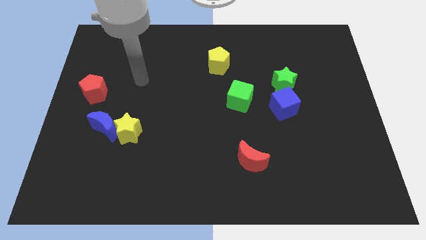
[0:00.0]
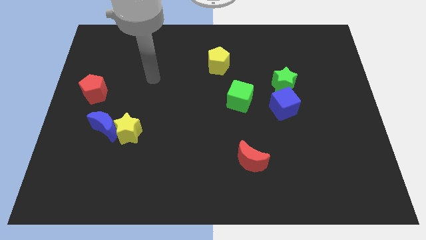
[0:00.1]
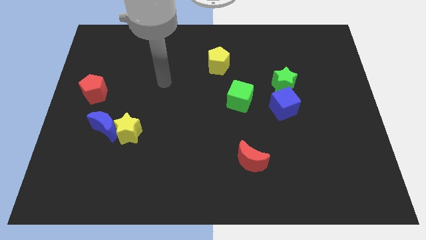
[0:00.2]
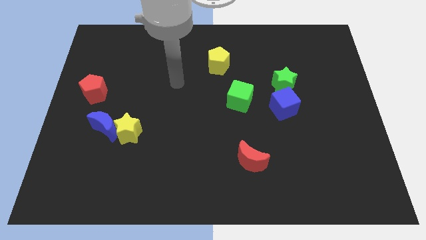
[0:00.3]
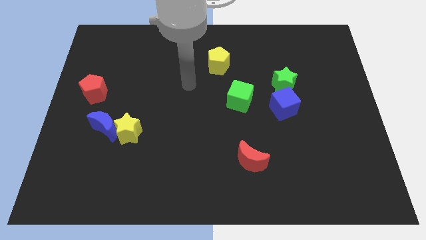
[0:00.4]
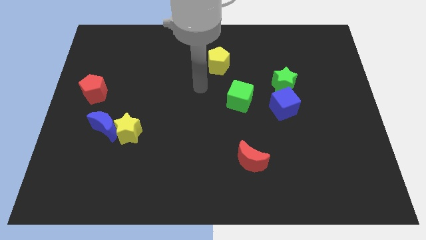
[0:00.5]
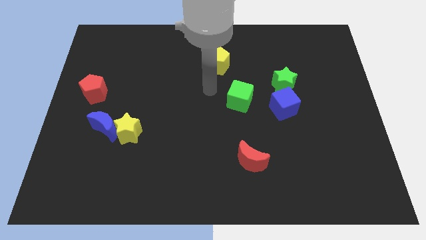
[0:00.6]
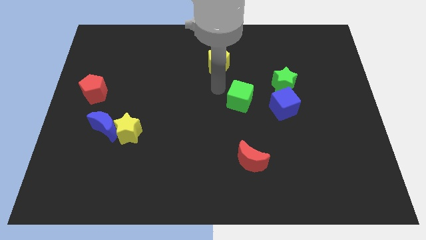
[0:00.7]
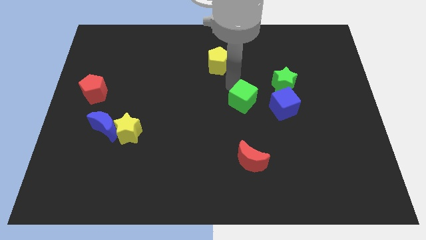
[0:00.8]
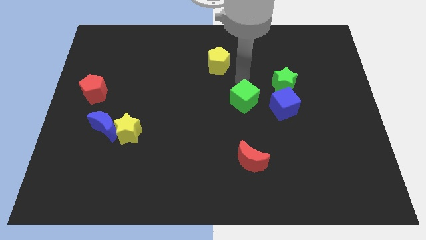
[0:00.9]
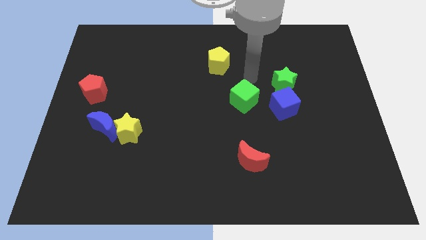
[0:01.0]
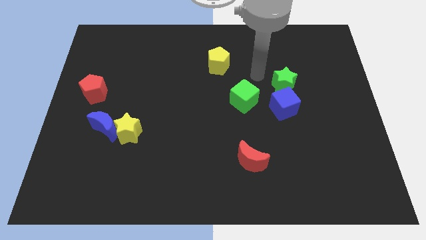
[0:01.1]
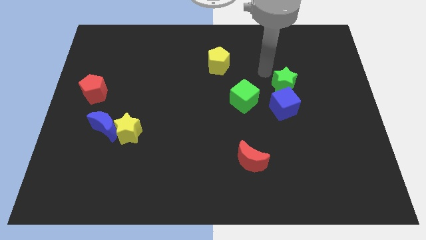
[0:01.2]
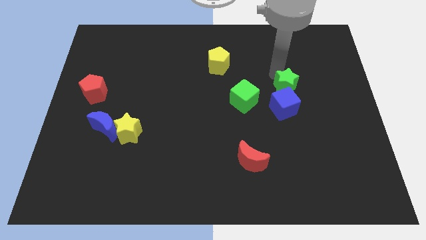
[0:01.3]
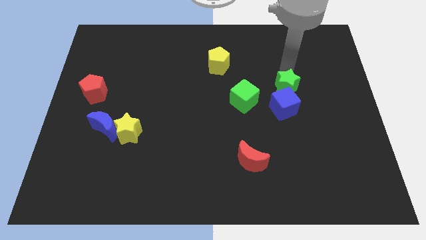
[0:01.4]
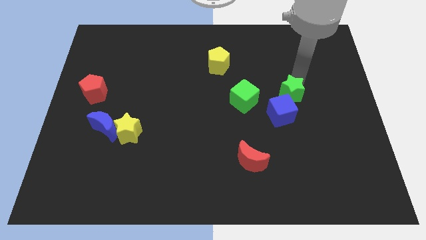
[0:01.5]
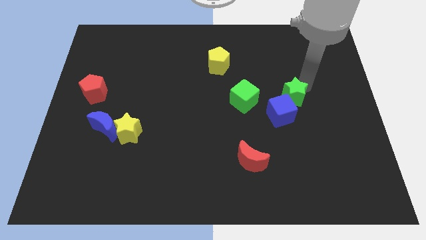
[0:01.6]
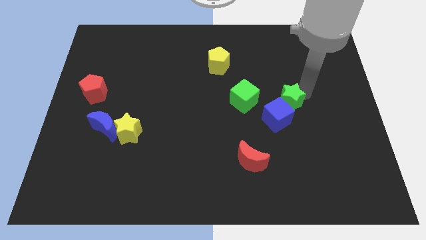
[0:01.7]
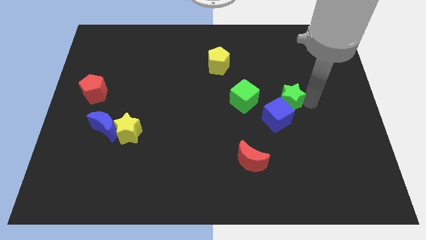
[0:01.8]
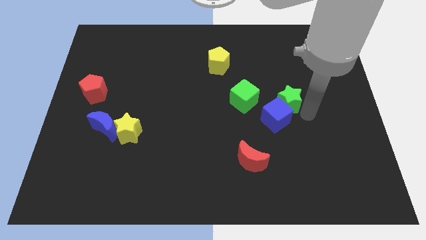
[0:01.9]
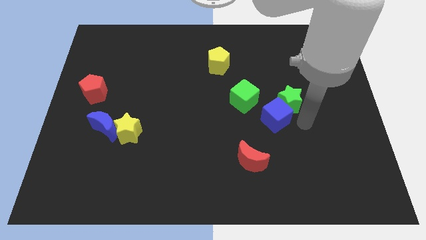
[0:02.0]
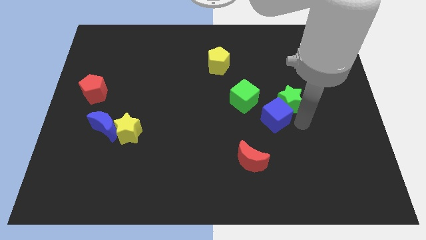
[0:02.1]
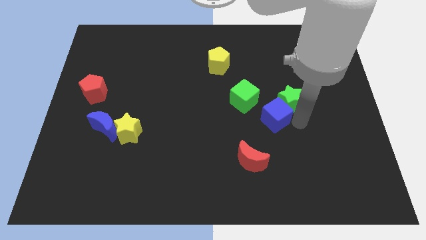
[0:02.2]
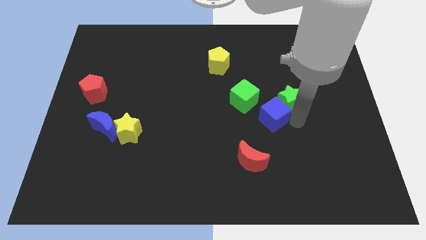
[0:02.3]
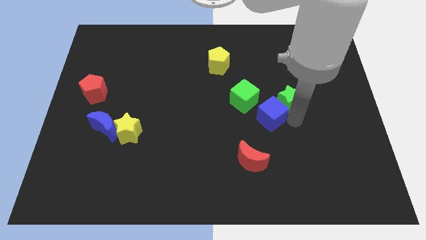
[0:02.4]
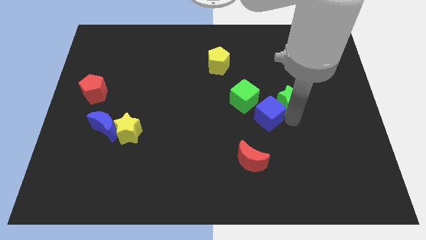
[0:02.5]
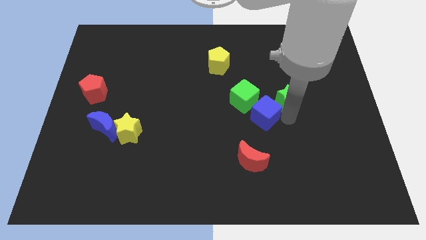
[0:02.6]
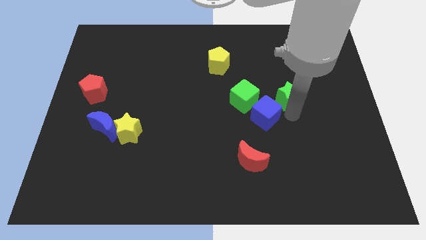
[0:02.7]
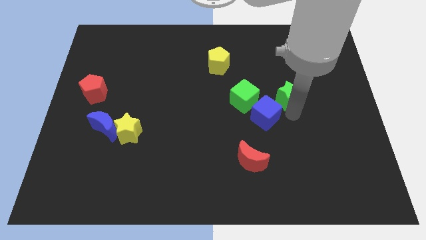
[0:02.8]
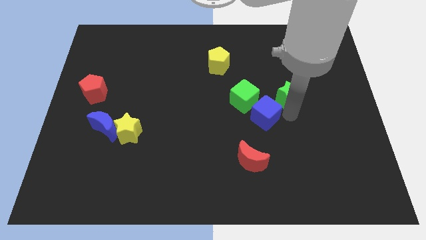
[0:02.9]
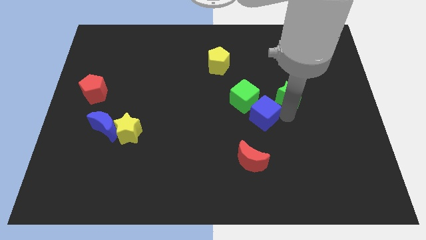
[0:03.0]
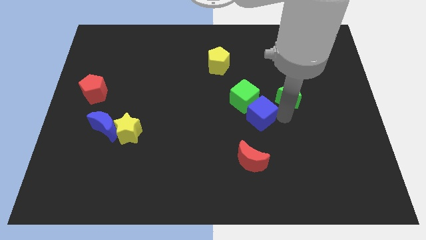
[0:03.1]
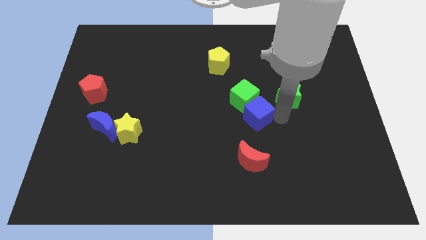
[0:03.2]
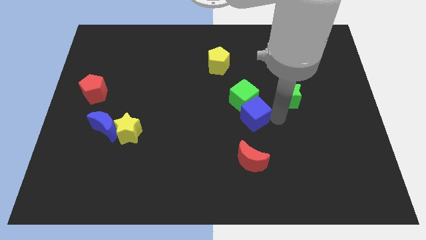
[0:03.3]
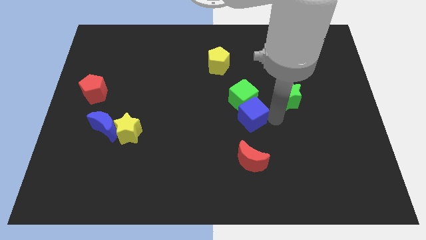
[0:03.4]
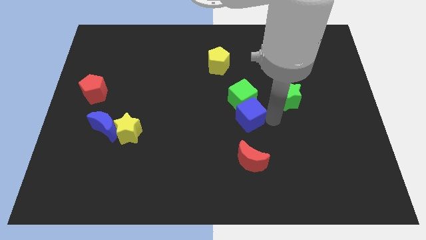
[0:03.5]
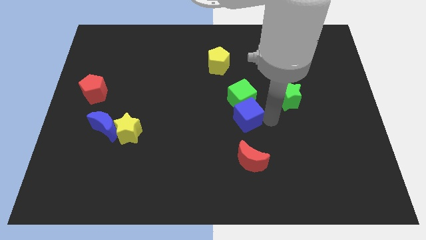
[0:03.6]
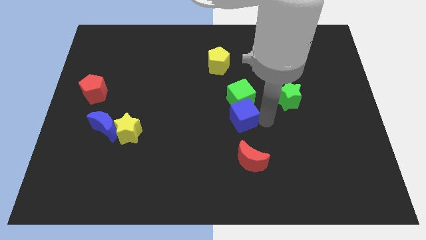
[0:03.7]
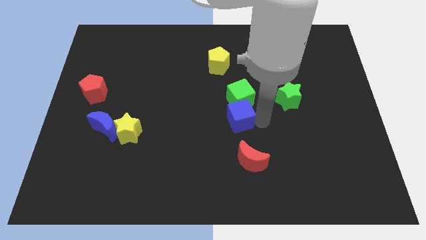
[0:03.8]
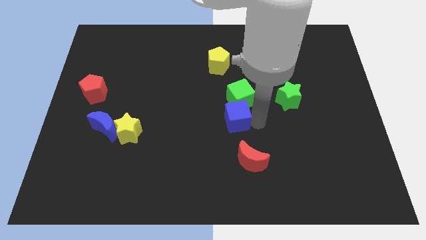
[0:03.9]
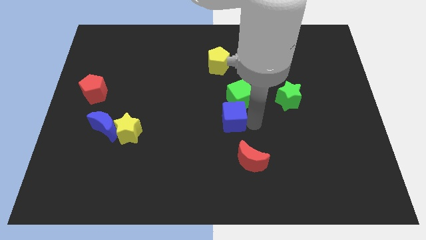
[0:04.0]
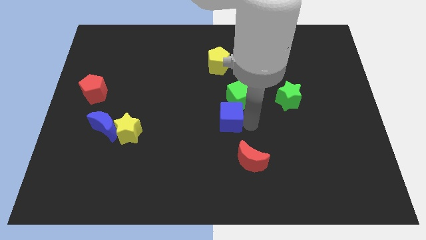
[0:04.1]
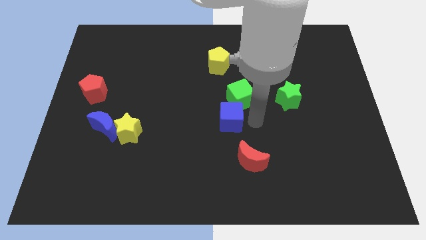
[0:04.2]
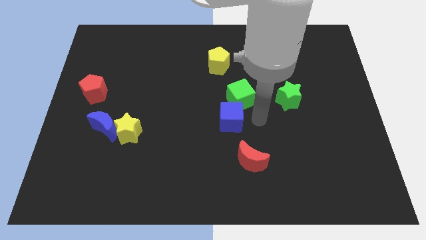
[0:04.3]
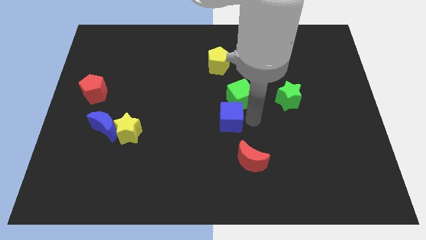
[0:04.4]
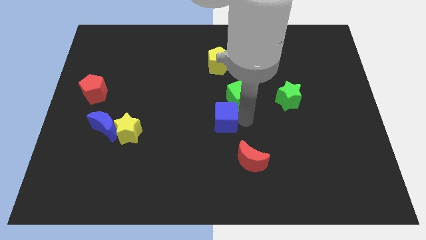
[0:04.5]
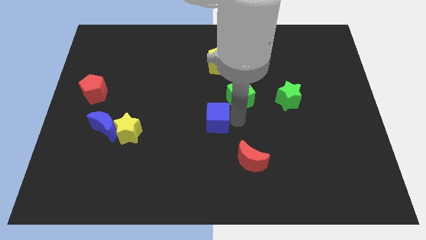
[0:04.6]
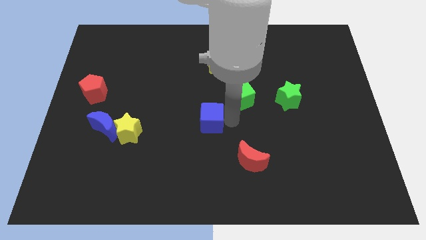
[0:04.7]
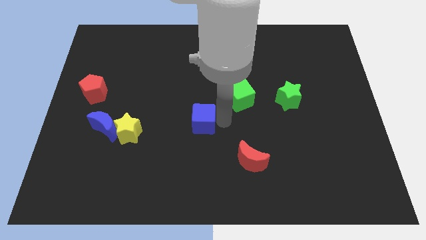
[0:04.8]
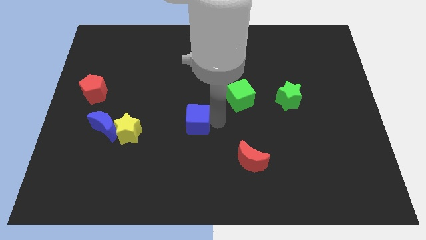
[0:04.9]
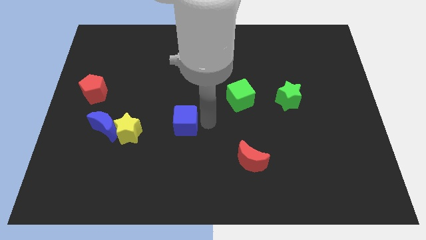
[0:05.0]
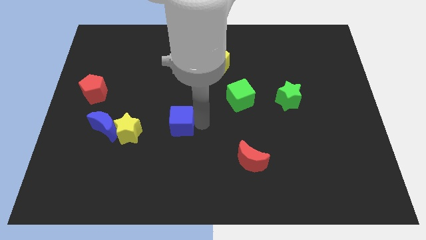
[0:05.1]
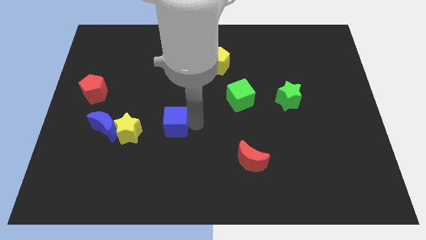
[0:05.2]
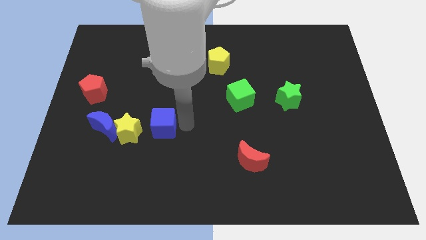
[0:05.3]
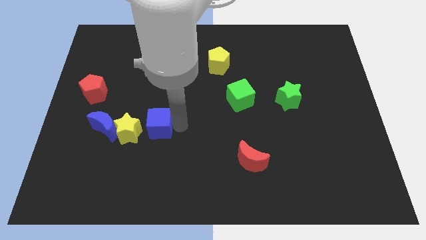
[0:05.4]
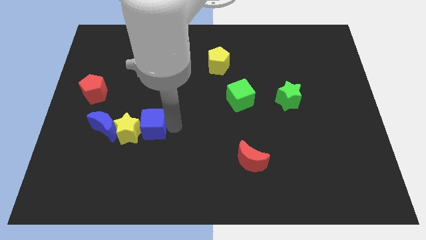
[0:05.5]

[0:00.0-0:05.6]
put the blue cube to the yellow star

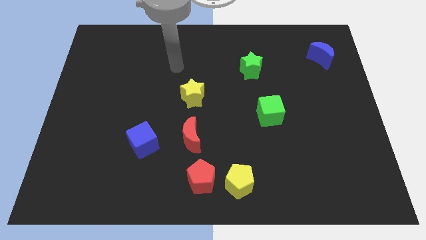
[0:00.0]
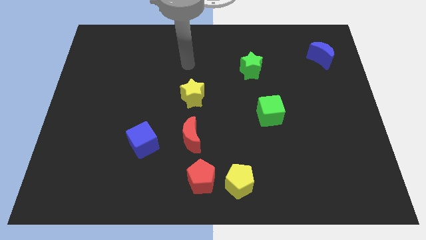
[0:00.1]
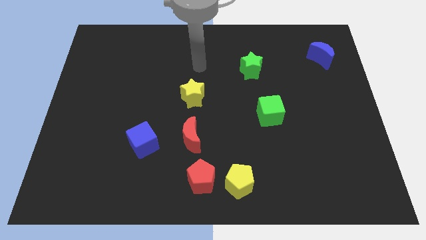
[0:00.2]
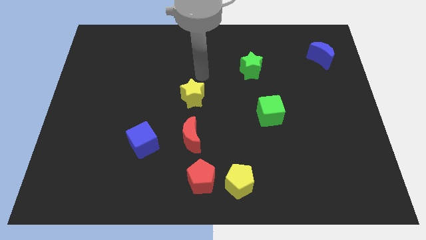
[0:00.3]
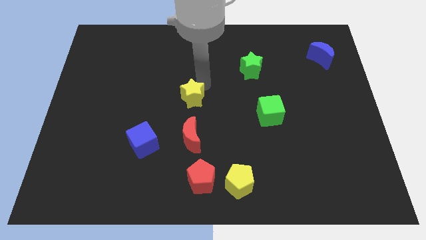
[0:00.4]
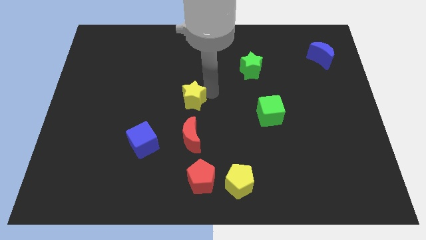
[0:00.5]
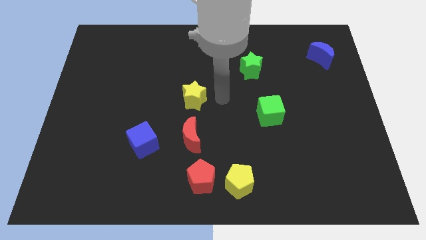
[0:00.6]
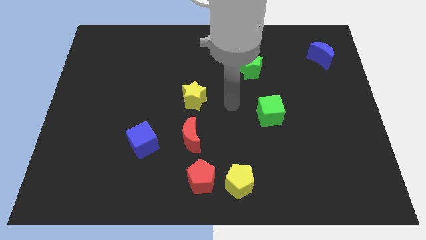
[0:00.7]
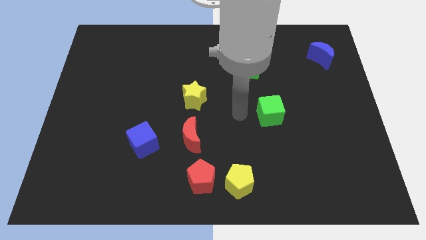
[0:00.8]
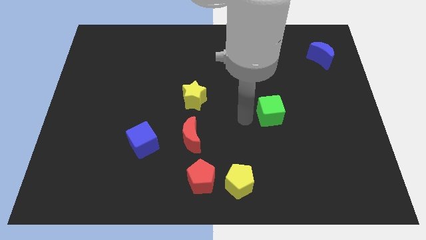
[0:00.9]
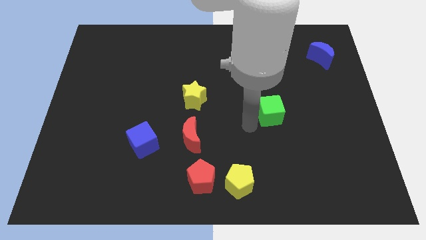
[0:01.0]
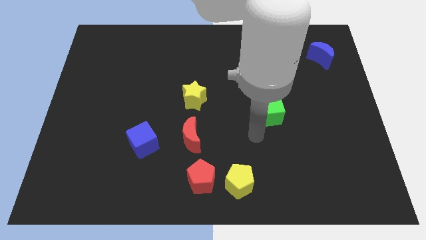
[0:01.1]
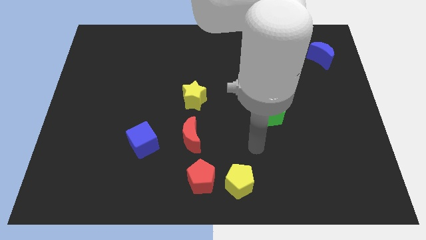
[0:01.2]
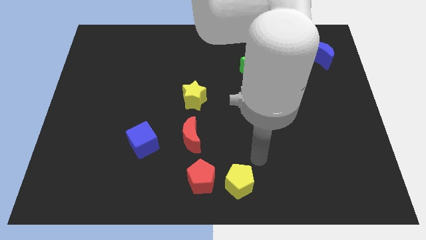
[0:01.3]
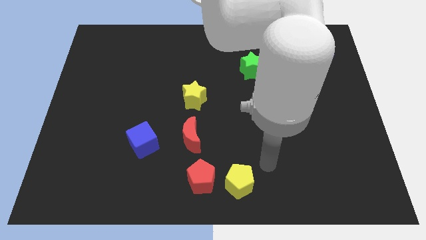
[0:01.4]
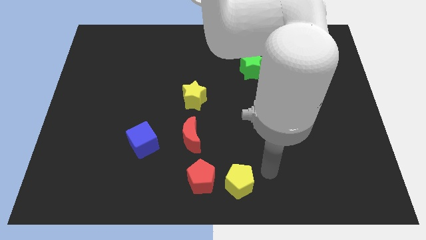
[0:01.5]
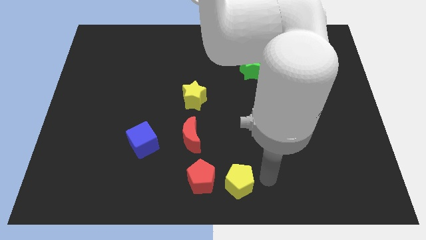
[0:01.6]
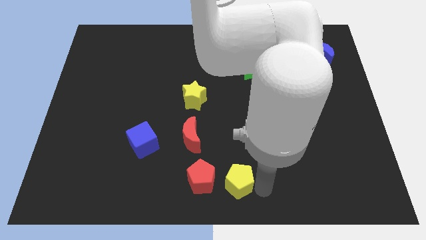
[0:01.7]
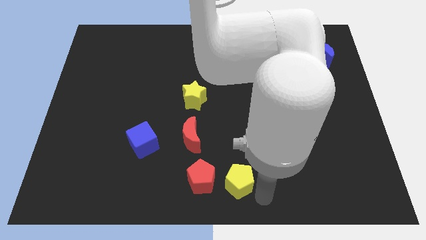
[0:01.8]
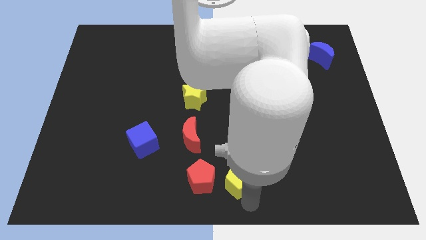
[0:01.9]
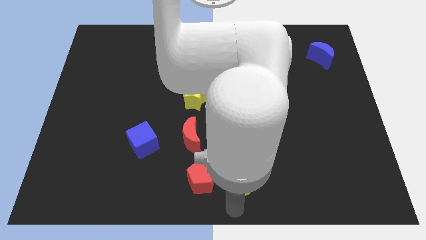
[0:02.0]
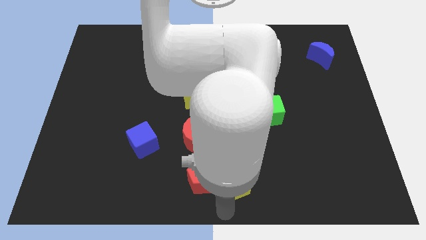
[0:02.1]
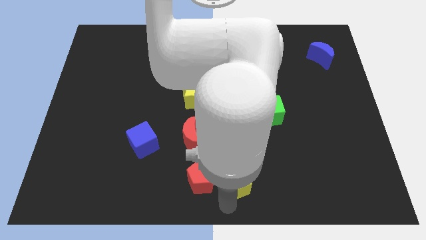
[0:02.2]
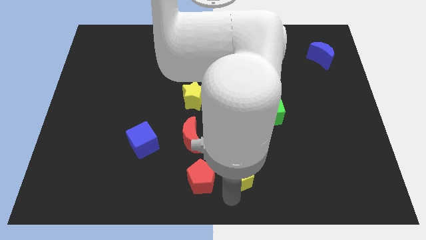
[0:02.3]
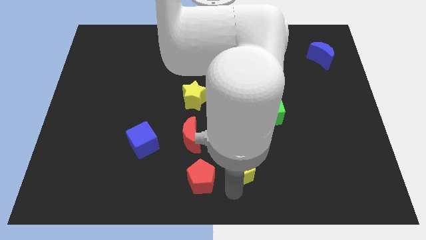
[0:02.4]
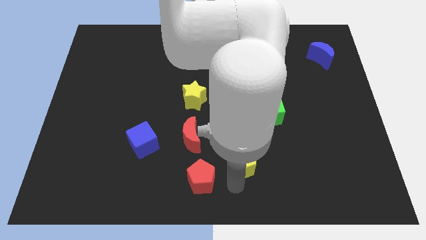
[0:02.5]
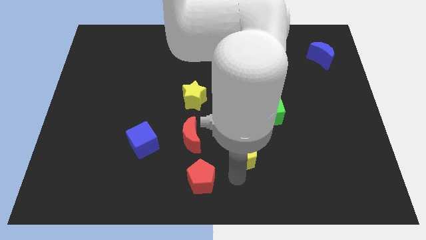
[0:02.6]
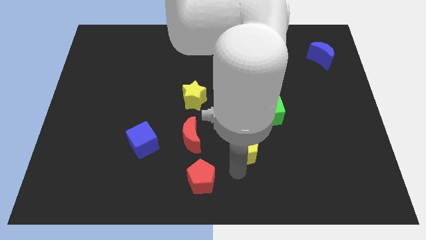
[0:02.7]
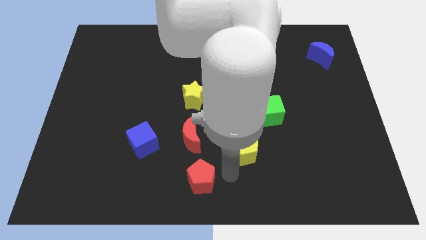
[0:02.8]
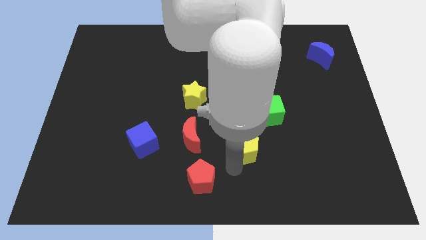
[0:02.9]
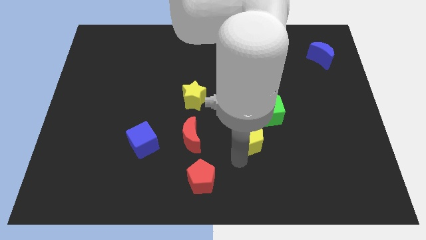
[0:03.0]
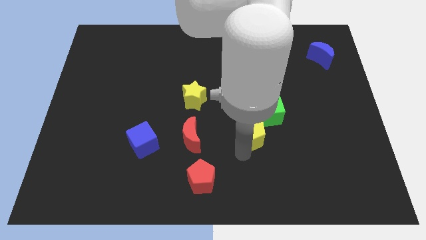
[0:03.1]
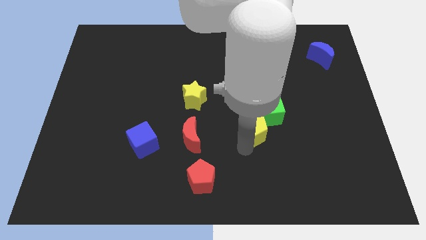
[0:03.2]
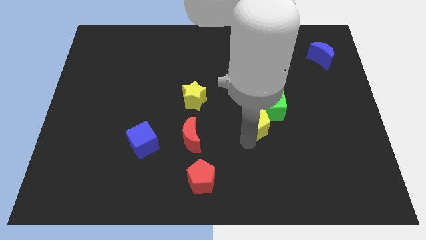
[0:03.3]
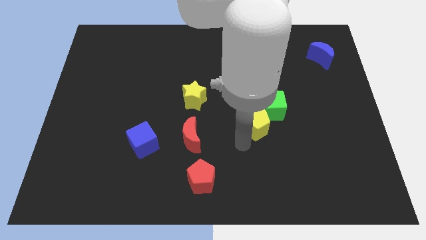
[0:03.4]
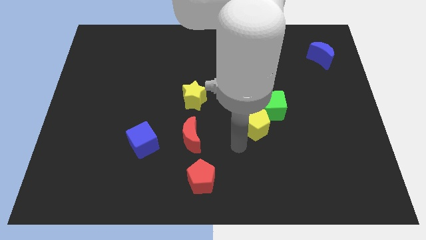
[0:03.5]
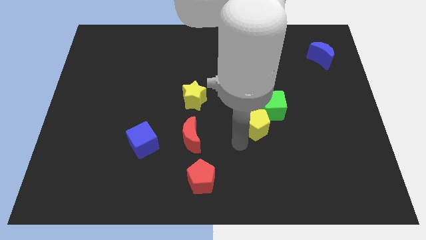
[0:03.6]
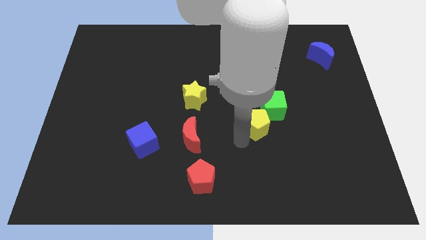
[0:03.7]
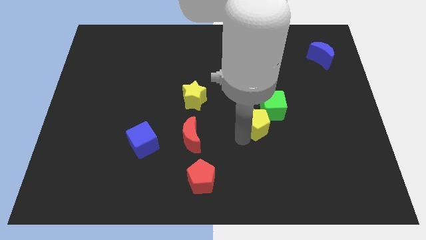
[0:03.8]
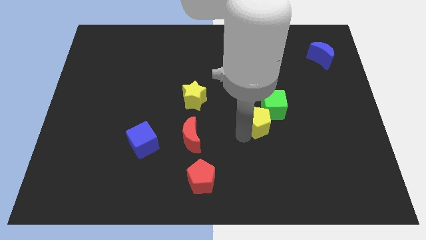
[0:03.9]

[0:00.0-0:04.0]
slide the yellow pentagon next to the green cube
